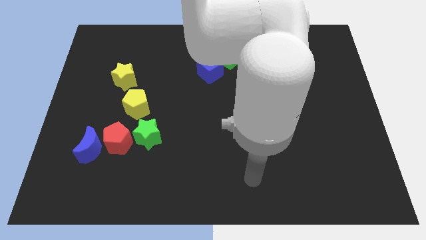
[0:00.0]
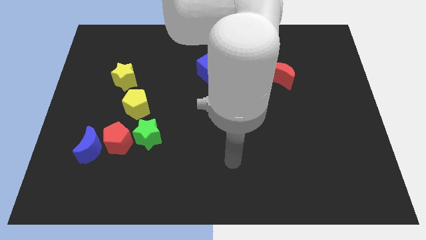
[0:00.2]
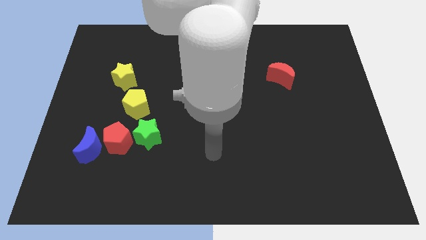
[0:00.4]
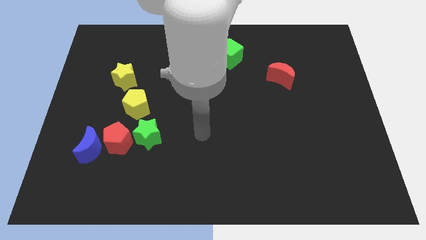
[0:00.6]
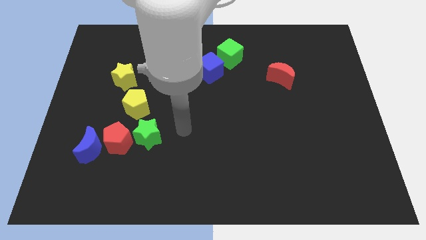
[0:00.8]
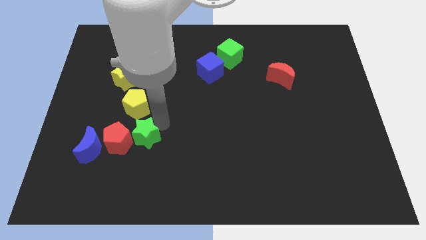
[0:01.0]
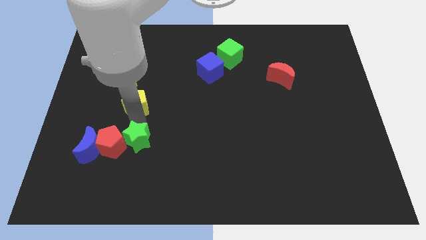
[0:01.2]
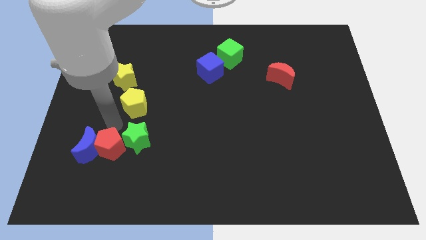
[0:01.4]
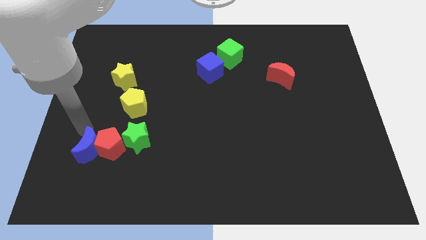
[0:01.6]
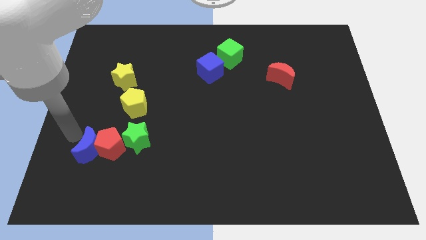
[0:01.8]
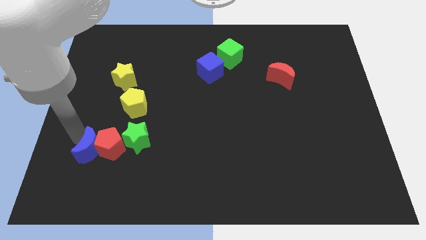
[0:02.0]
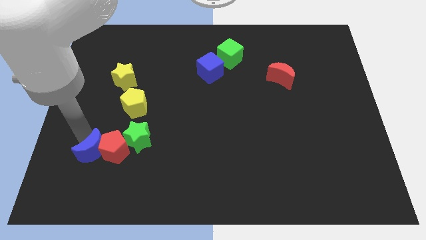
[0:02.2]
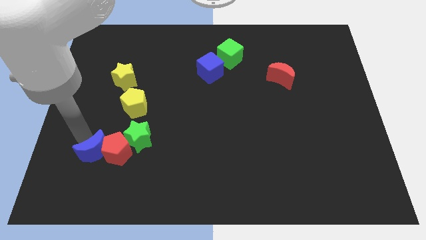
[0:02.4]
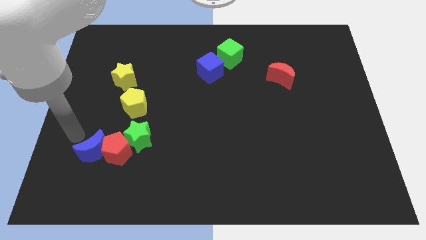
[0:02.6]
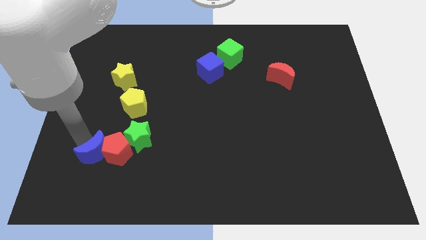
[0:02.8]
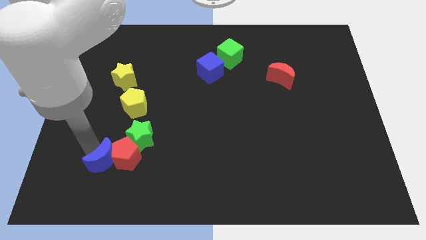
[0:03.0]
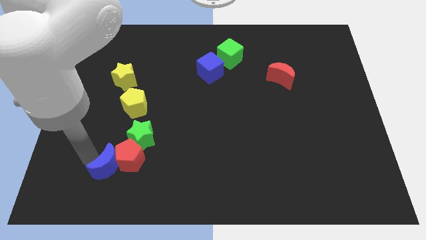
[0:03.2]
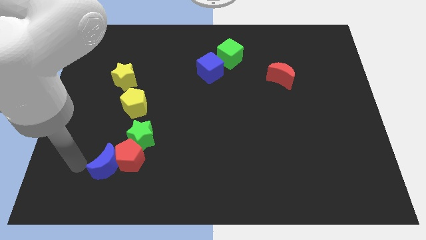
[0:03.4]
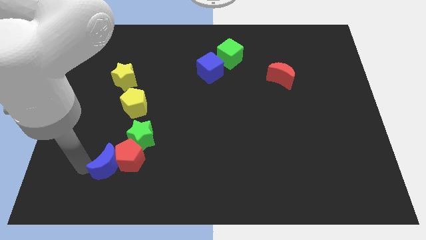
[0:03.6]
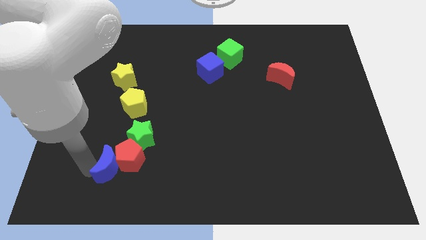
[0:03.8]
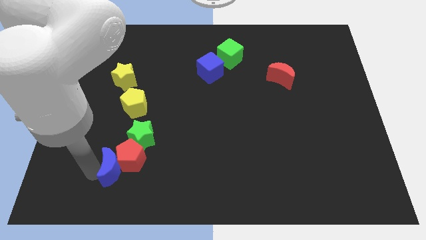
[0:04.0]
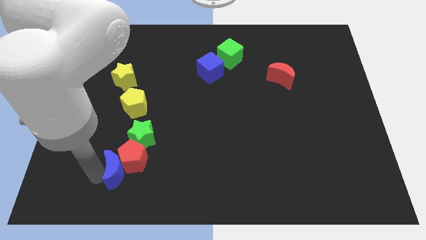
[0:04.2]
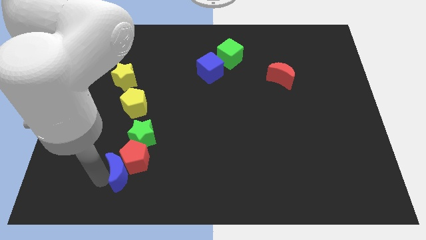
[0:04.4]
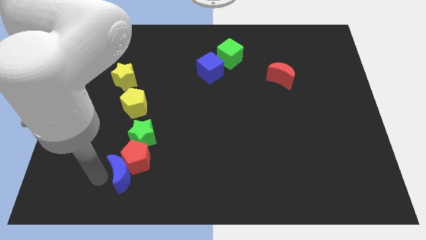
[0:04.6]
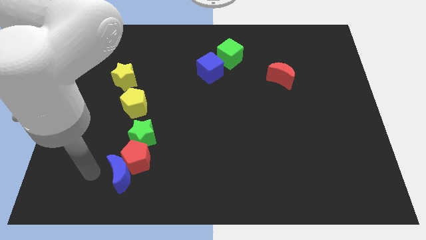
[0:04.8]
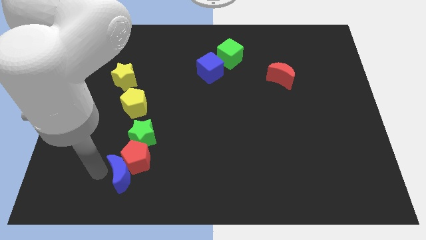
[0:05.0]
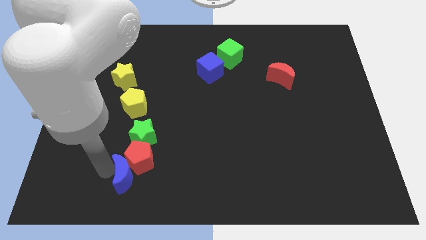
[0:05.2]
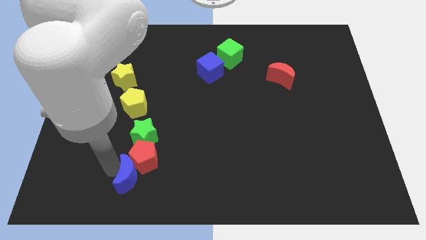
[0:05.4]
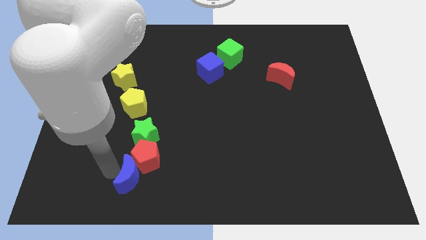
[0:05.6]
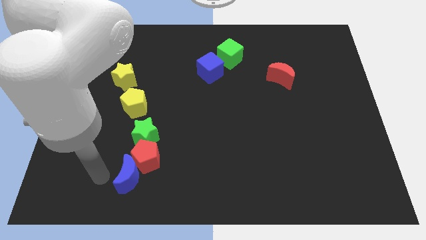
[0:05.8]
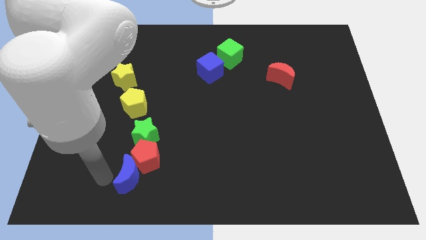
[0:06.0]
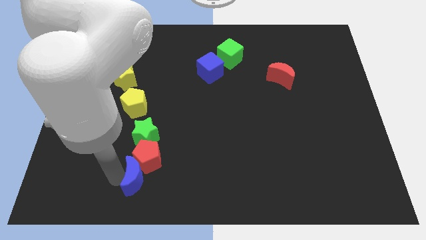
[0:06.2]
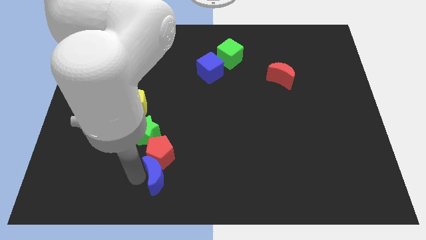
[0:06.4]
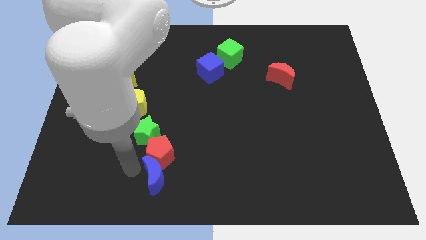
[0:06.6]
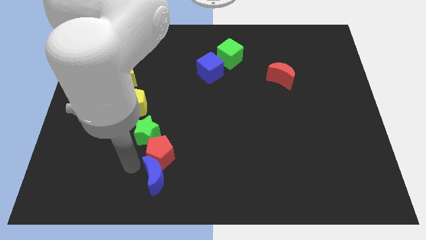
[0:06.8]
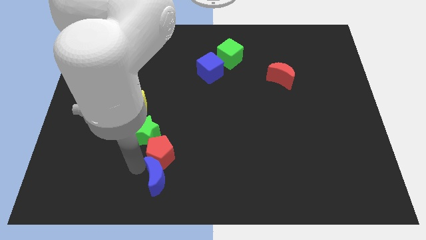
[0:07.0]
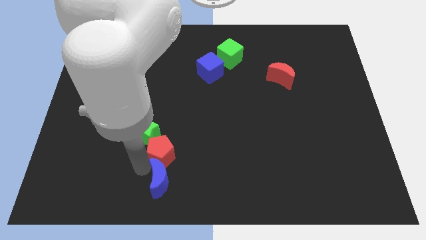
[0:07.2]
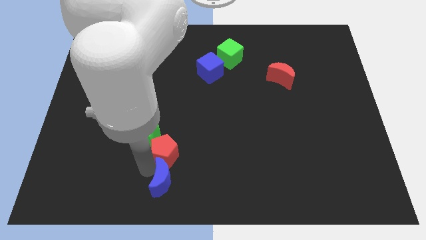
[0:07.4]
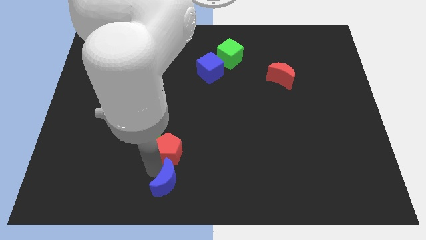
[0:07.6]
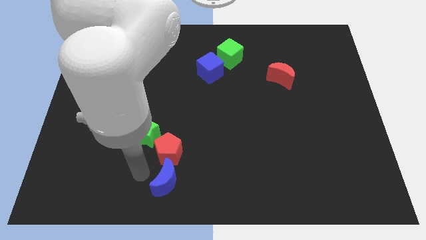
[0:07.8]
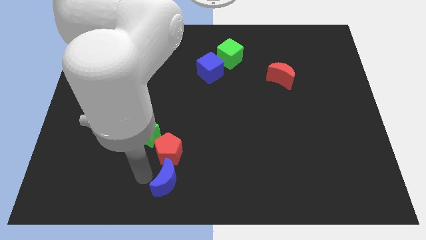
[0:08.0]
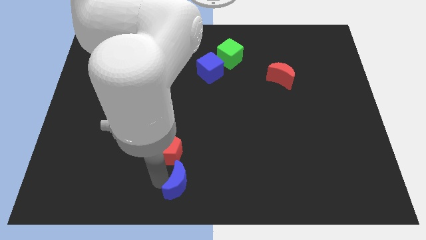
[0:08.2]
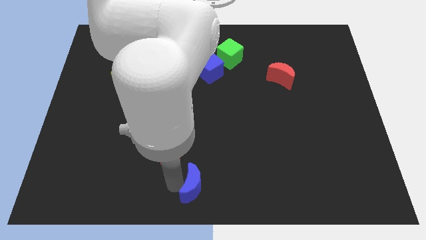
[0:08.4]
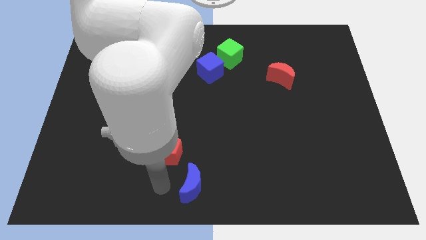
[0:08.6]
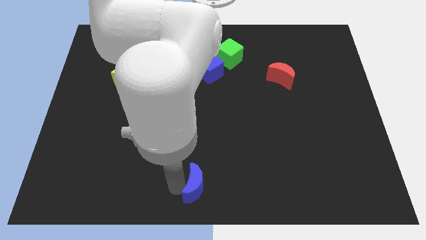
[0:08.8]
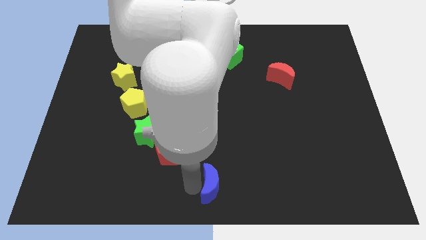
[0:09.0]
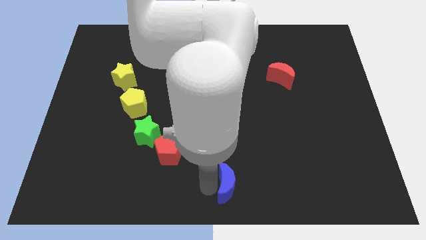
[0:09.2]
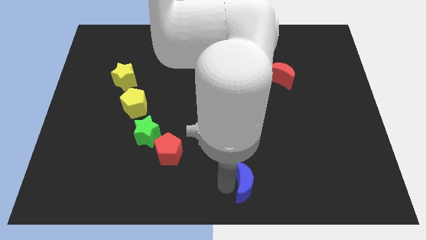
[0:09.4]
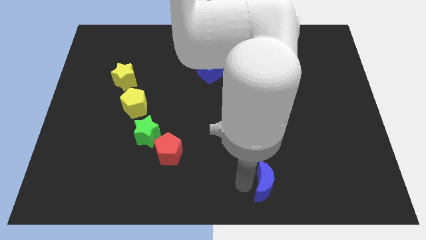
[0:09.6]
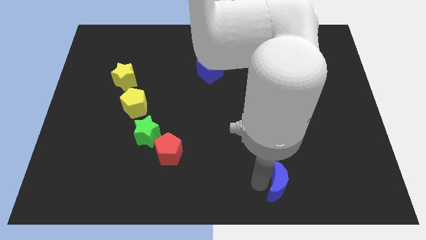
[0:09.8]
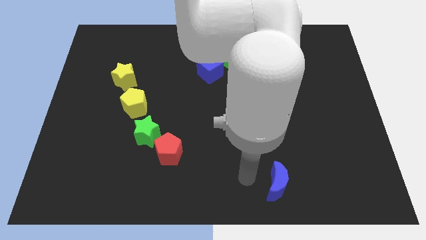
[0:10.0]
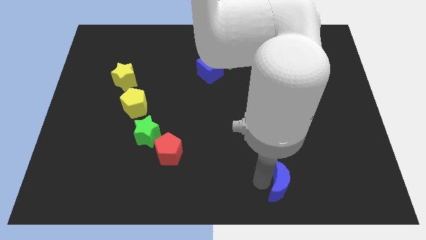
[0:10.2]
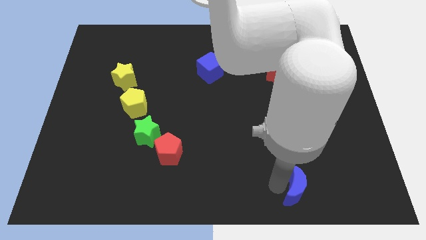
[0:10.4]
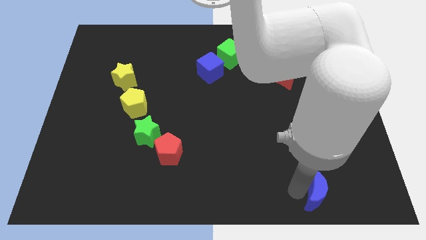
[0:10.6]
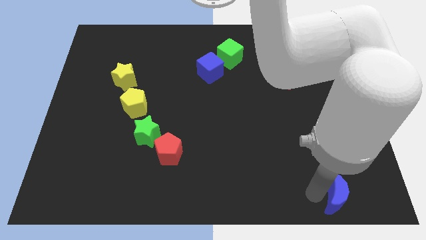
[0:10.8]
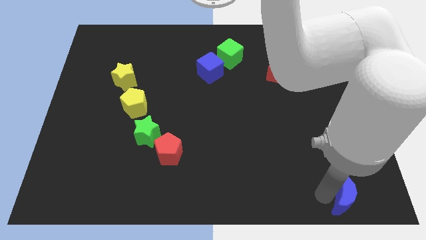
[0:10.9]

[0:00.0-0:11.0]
push the blue moon to the bottom right

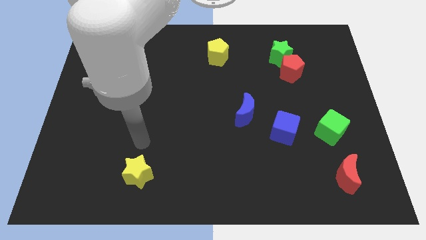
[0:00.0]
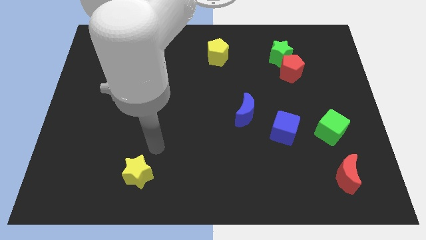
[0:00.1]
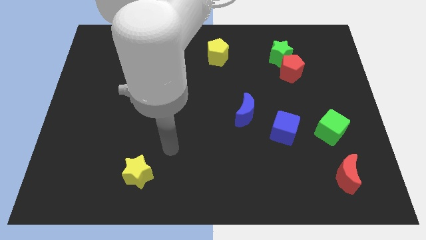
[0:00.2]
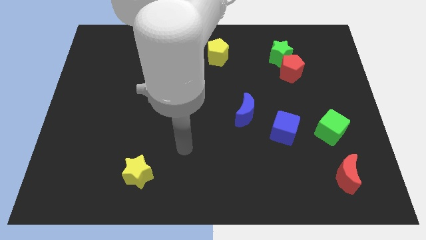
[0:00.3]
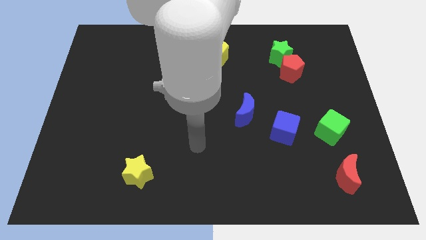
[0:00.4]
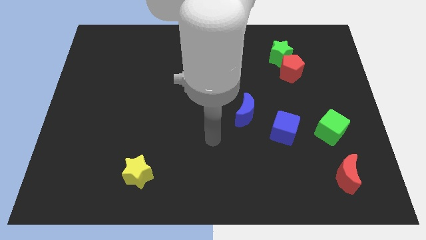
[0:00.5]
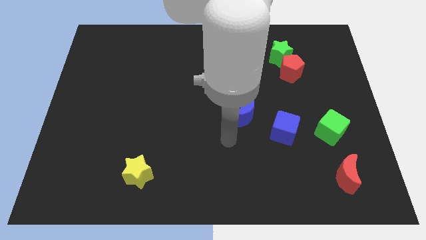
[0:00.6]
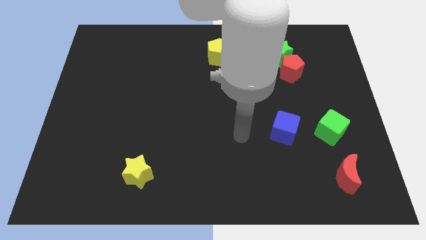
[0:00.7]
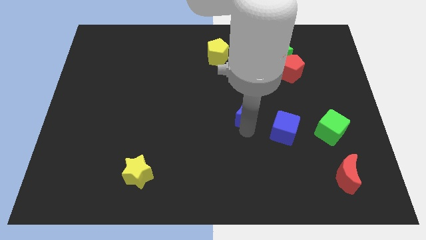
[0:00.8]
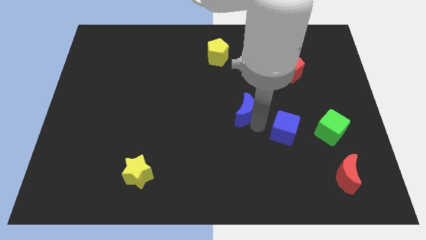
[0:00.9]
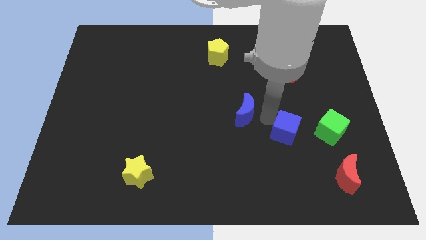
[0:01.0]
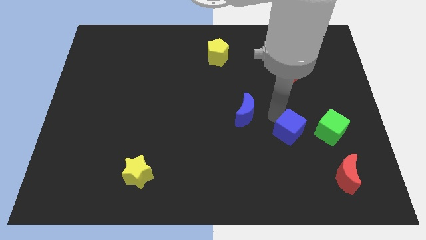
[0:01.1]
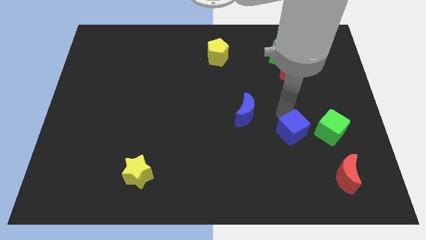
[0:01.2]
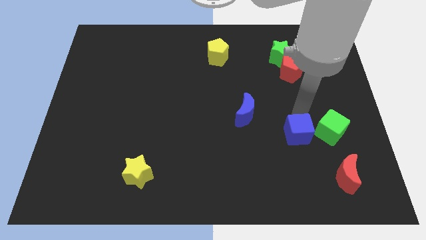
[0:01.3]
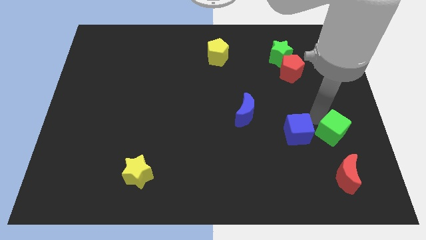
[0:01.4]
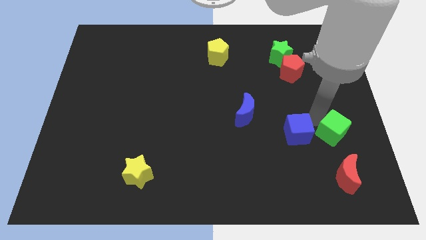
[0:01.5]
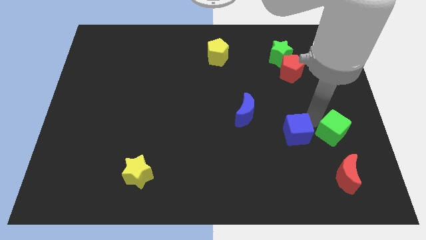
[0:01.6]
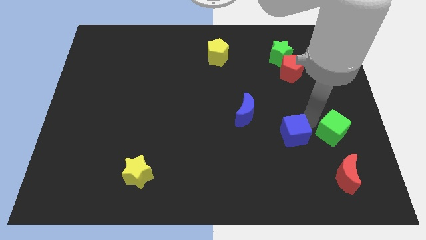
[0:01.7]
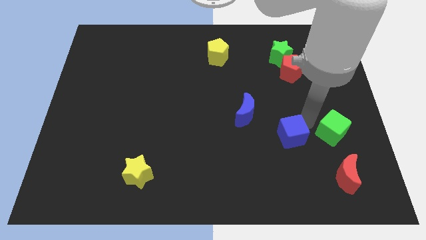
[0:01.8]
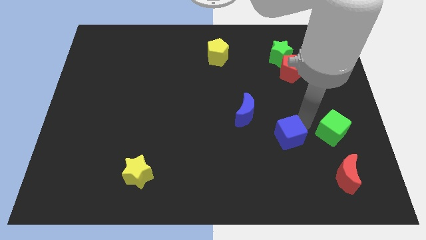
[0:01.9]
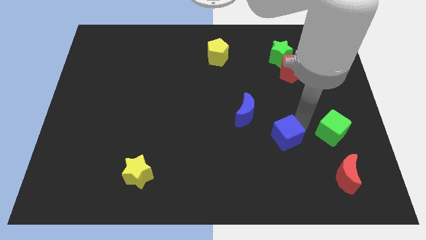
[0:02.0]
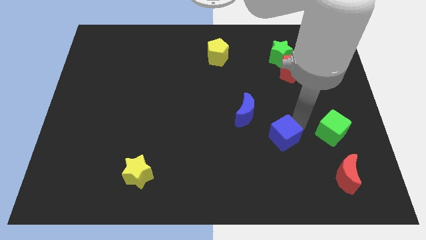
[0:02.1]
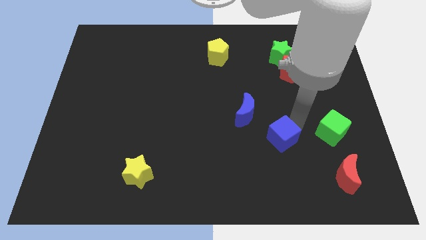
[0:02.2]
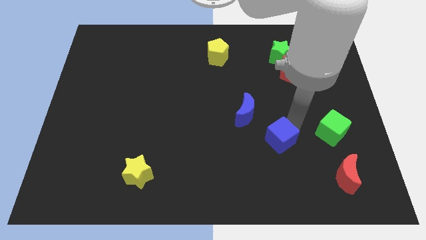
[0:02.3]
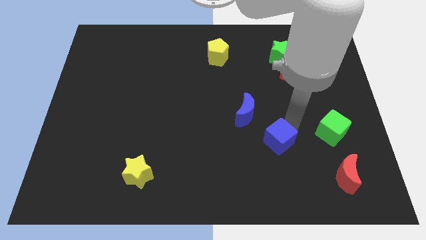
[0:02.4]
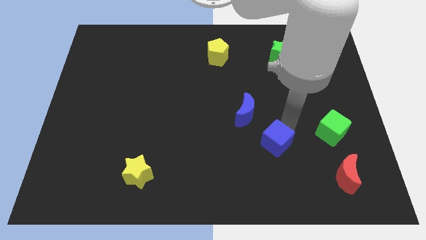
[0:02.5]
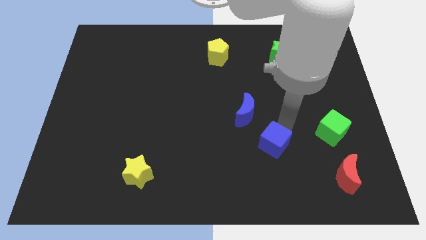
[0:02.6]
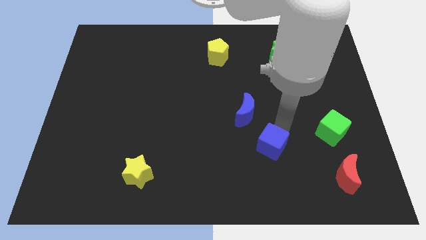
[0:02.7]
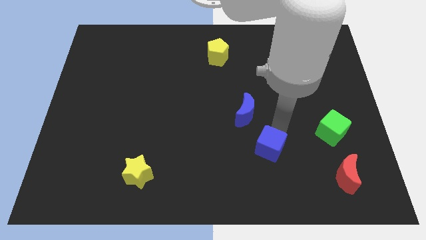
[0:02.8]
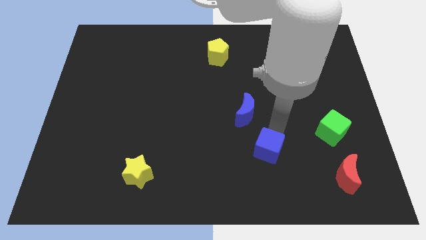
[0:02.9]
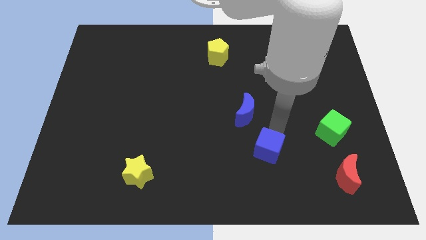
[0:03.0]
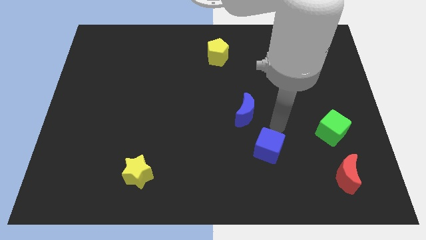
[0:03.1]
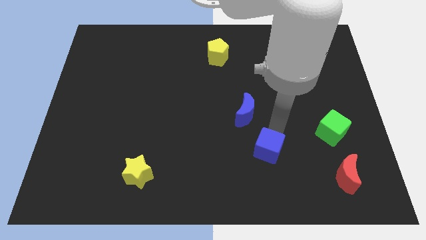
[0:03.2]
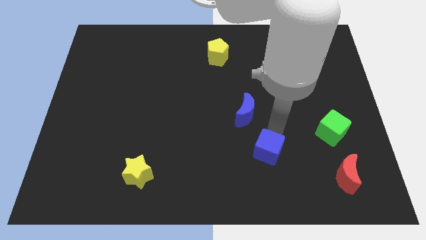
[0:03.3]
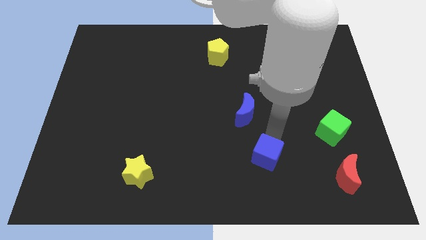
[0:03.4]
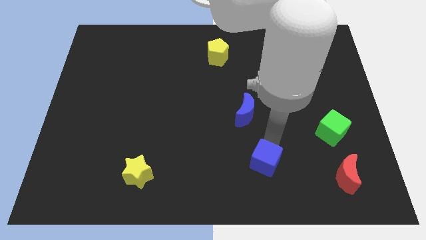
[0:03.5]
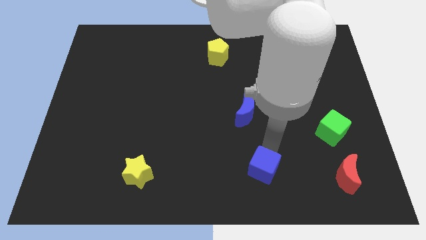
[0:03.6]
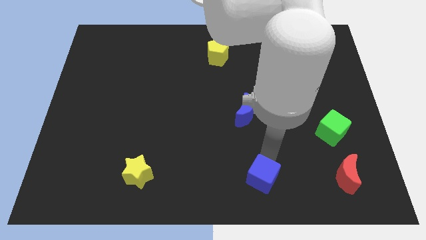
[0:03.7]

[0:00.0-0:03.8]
move the blue cube to the bottom
